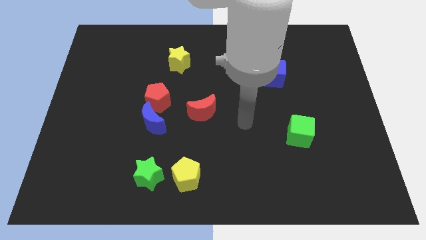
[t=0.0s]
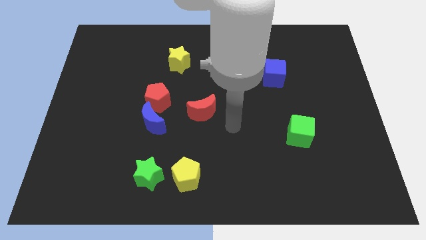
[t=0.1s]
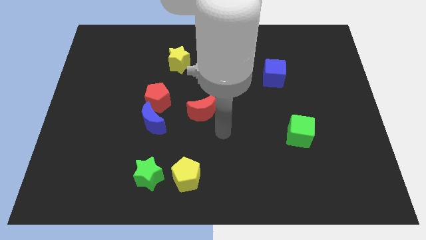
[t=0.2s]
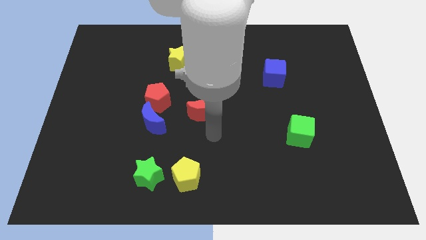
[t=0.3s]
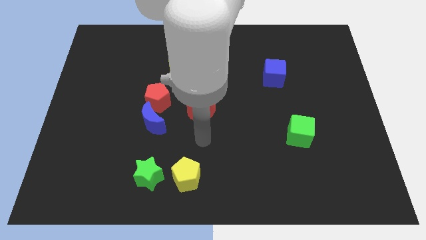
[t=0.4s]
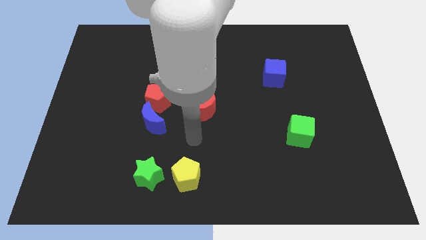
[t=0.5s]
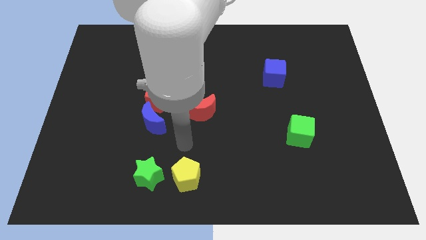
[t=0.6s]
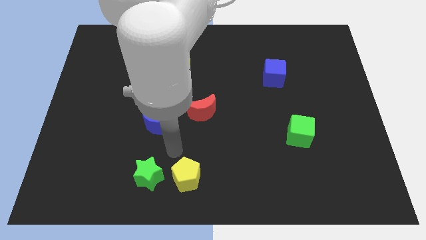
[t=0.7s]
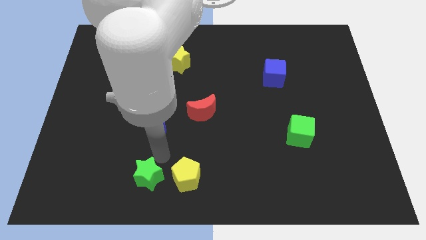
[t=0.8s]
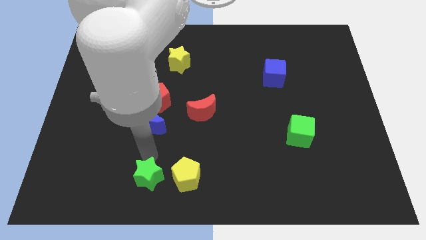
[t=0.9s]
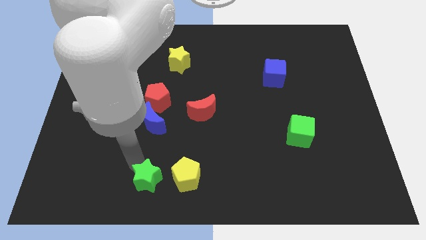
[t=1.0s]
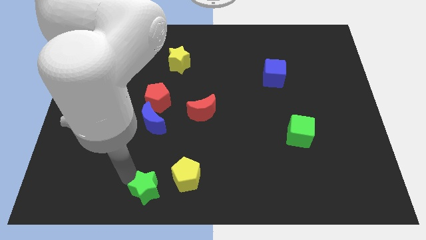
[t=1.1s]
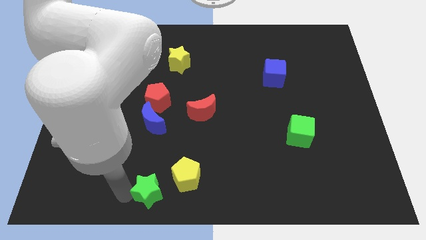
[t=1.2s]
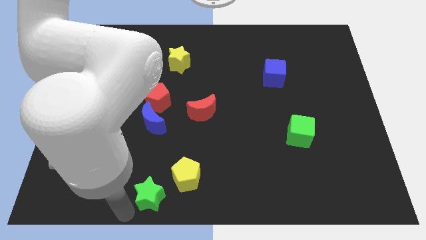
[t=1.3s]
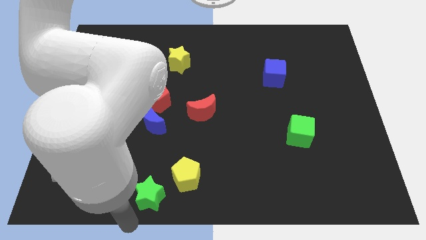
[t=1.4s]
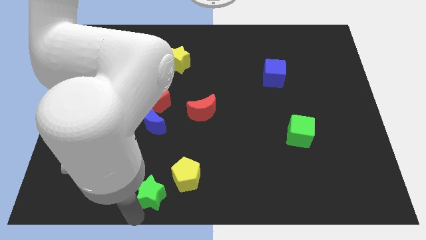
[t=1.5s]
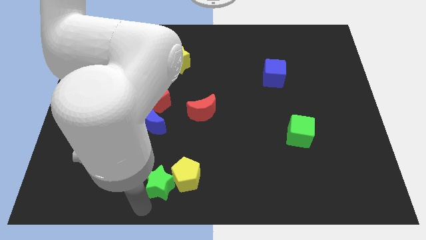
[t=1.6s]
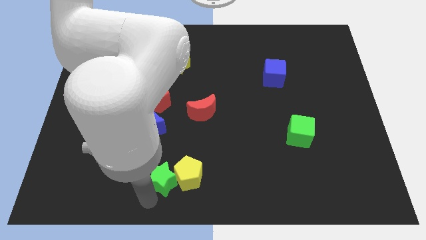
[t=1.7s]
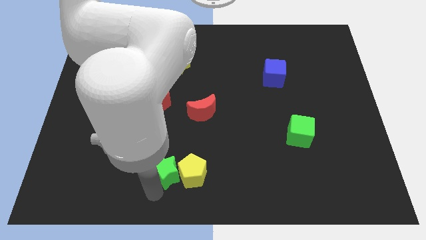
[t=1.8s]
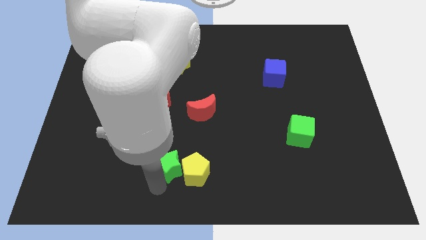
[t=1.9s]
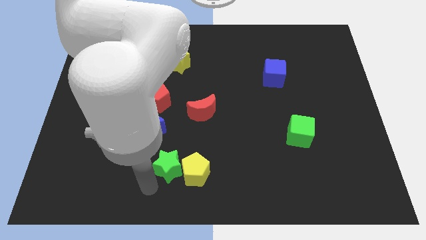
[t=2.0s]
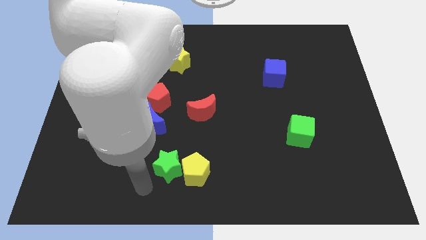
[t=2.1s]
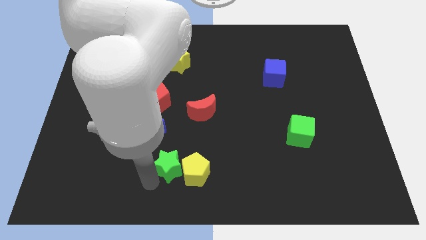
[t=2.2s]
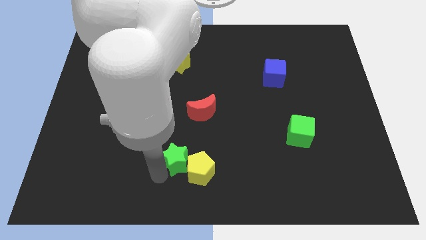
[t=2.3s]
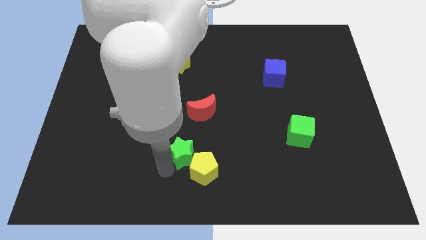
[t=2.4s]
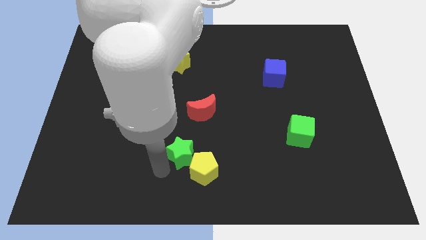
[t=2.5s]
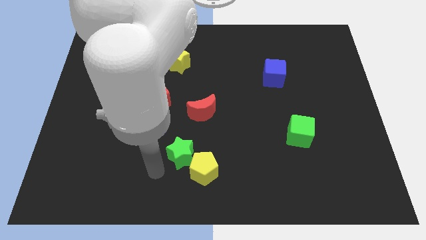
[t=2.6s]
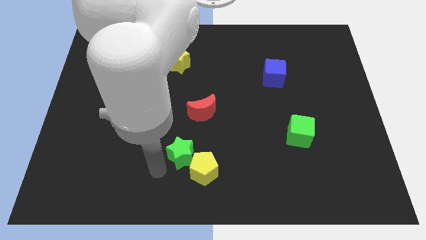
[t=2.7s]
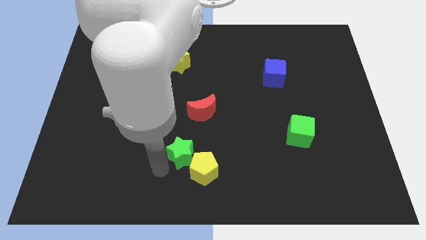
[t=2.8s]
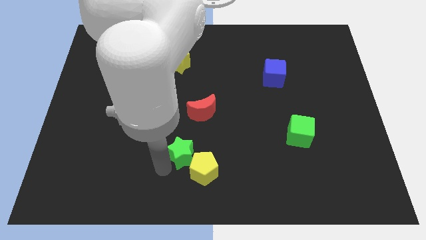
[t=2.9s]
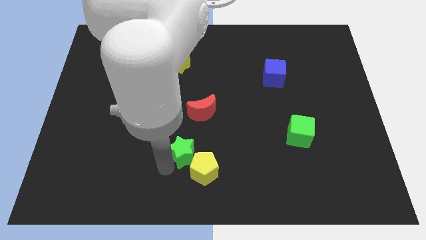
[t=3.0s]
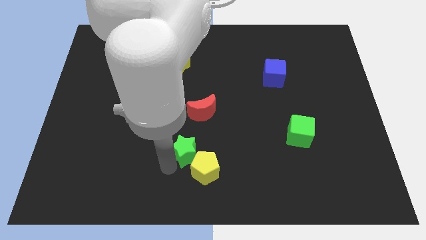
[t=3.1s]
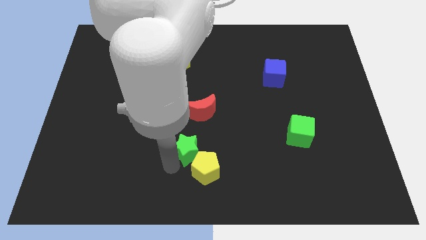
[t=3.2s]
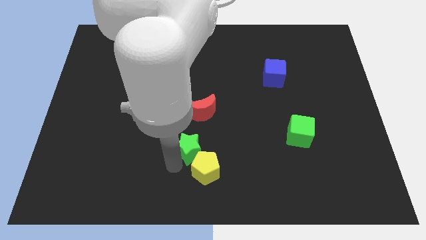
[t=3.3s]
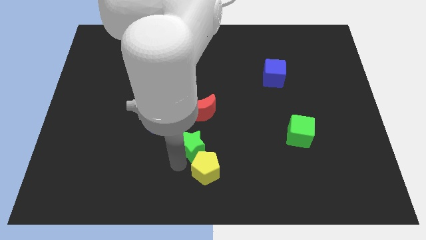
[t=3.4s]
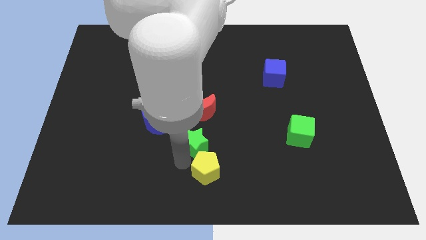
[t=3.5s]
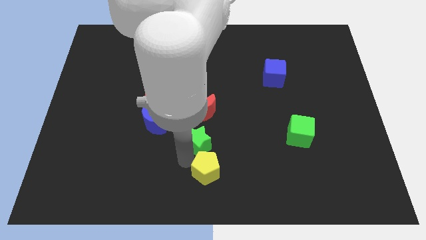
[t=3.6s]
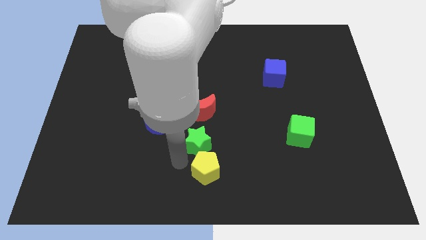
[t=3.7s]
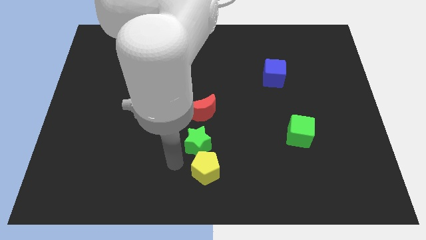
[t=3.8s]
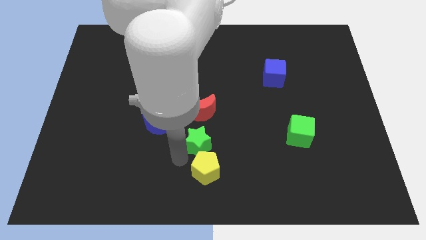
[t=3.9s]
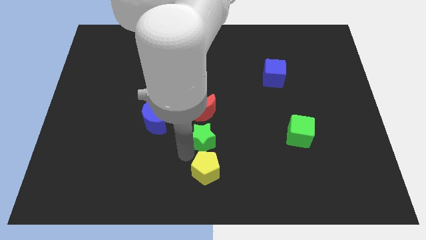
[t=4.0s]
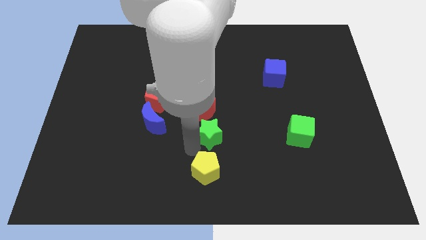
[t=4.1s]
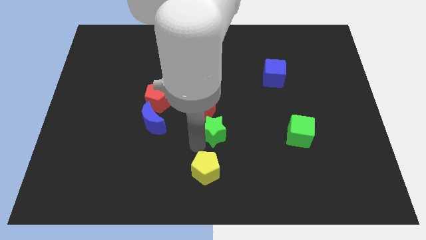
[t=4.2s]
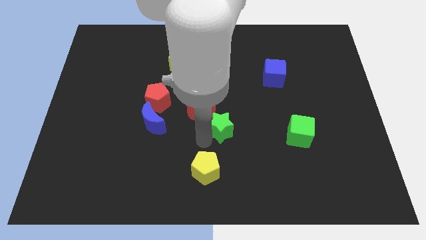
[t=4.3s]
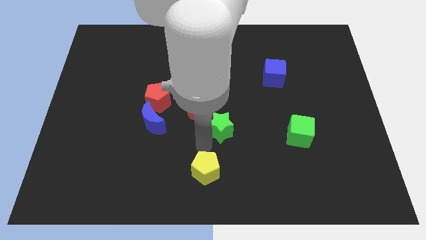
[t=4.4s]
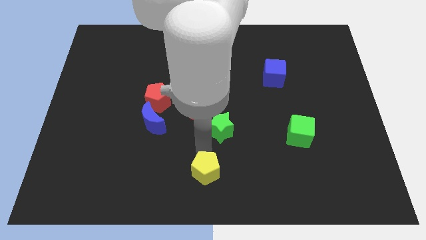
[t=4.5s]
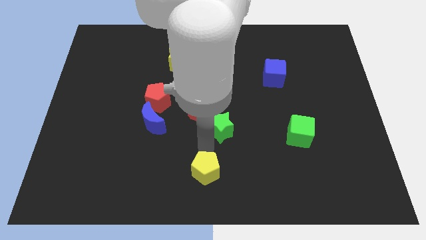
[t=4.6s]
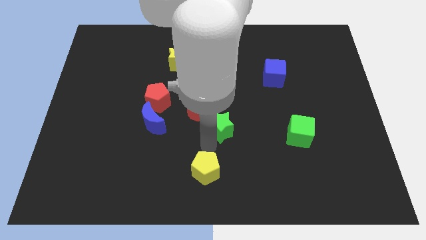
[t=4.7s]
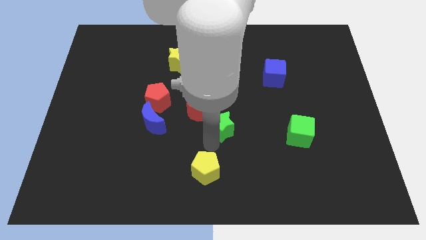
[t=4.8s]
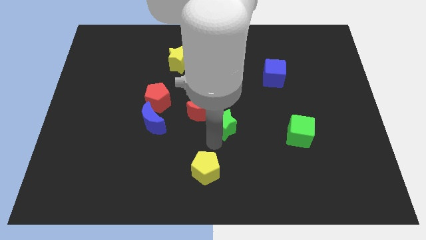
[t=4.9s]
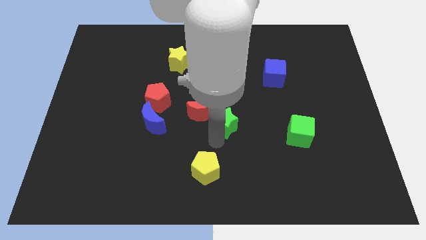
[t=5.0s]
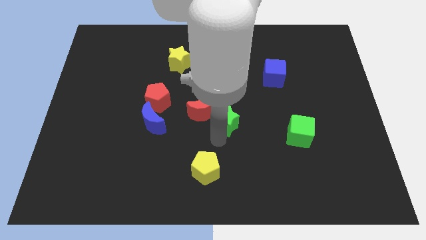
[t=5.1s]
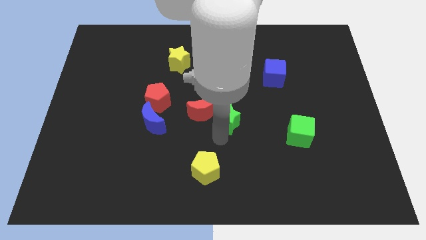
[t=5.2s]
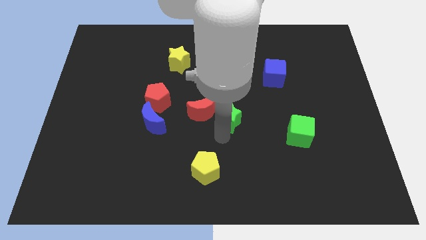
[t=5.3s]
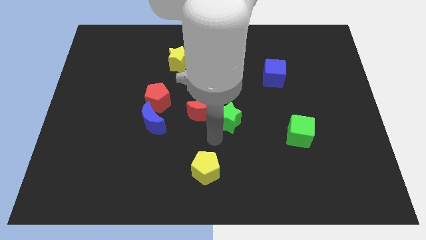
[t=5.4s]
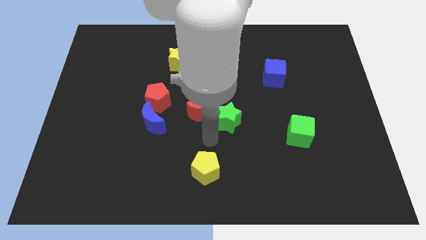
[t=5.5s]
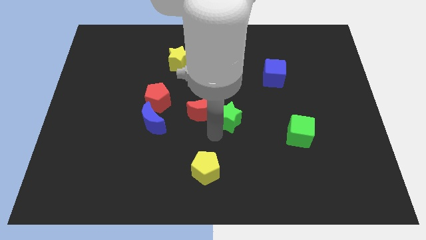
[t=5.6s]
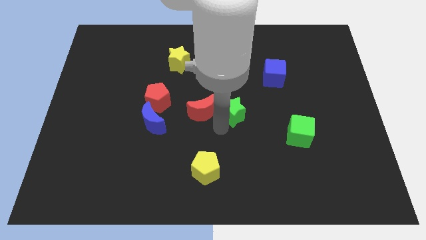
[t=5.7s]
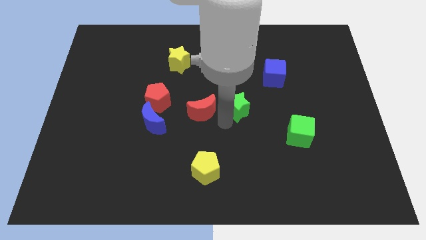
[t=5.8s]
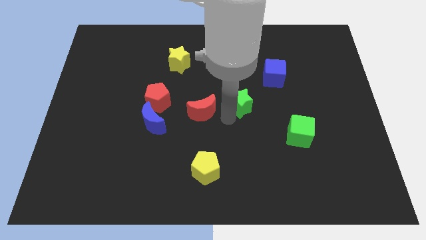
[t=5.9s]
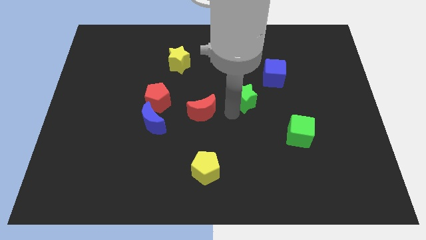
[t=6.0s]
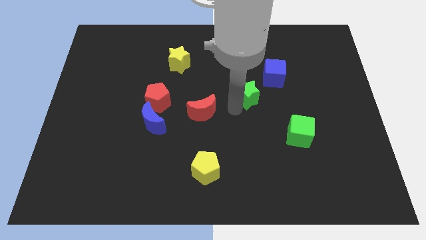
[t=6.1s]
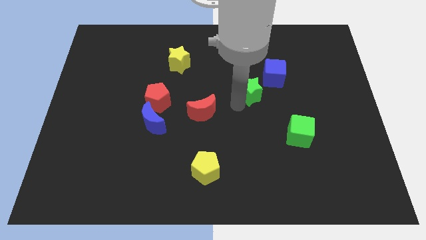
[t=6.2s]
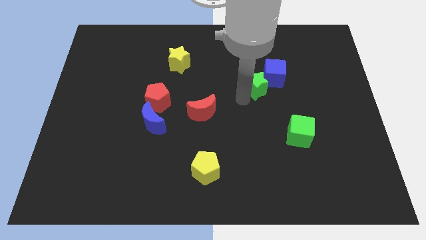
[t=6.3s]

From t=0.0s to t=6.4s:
slide the green star close to the blue cube

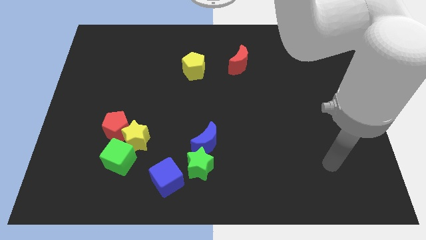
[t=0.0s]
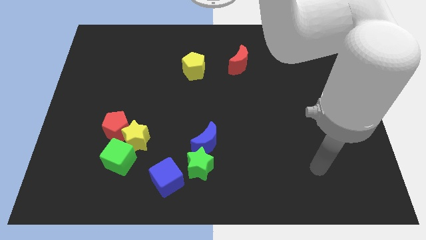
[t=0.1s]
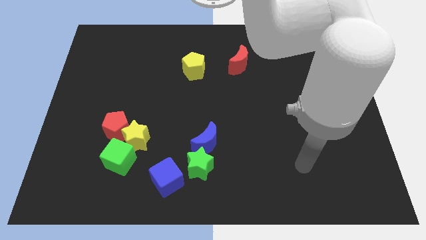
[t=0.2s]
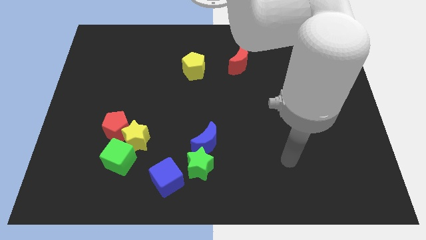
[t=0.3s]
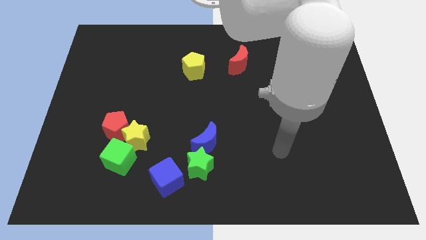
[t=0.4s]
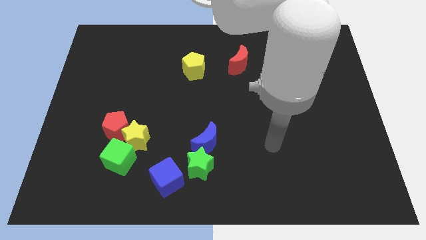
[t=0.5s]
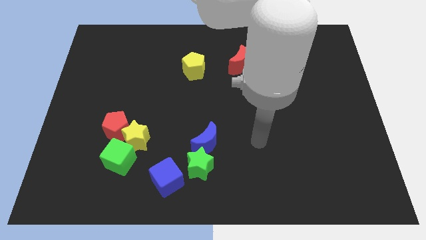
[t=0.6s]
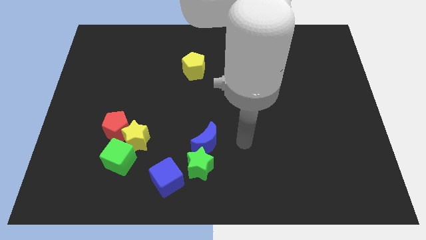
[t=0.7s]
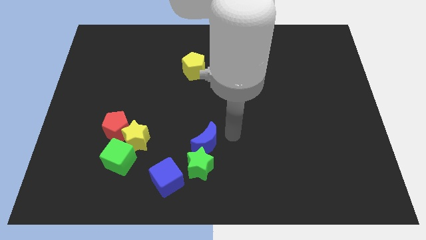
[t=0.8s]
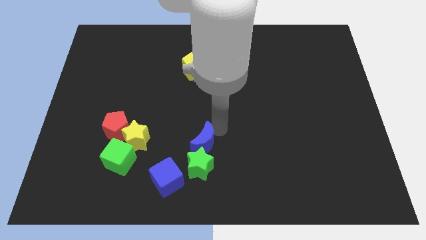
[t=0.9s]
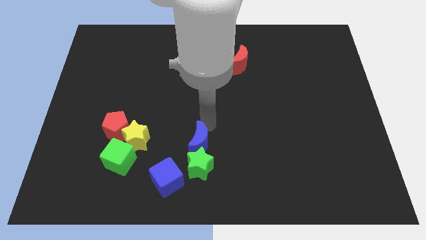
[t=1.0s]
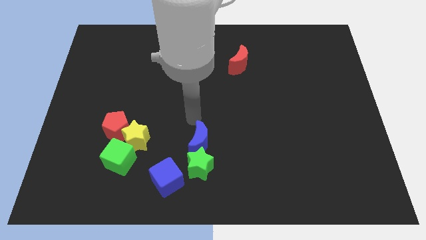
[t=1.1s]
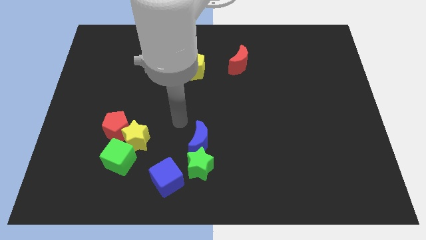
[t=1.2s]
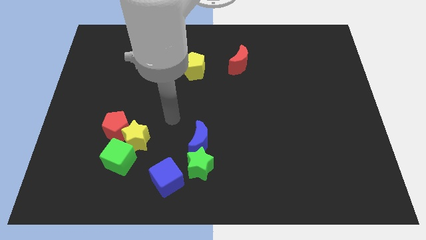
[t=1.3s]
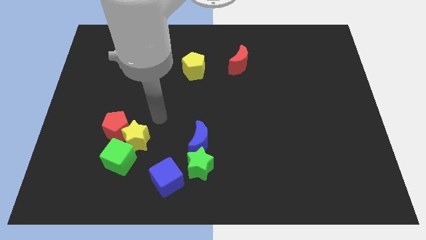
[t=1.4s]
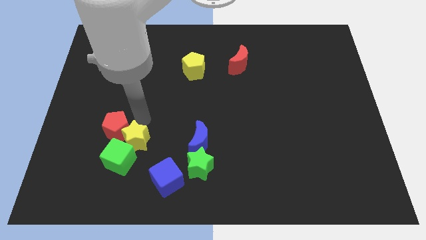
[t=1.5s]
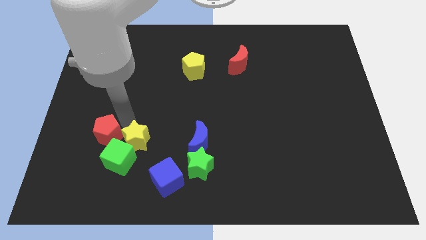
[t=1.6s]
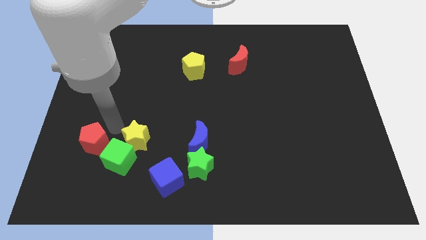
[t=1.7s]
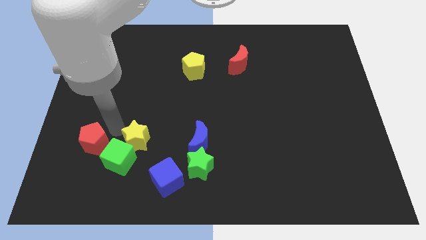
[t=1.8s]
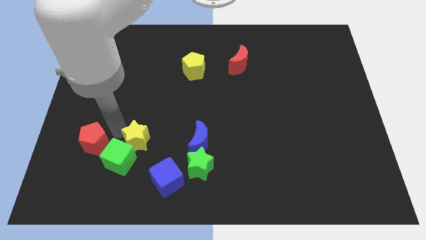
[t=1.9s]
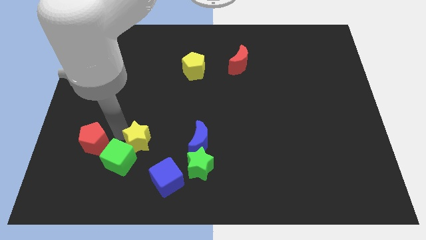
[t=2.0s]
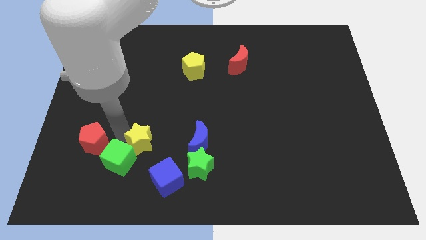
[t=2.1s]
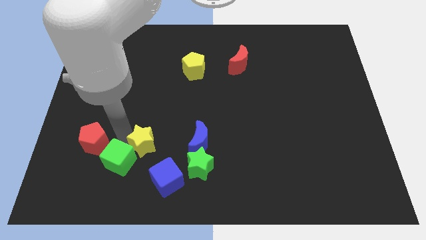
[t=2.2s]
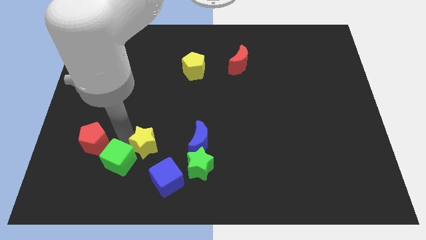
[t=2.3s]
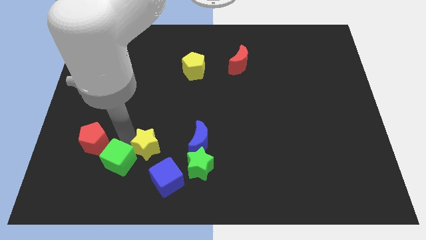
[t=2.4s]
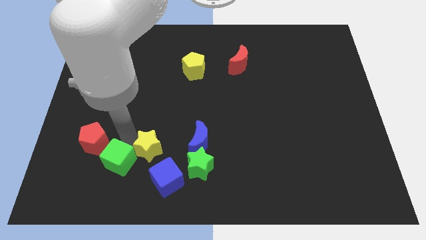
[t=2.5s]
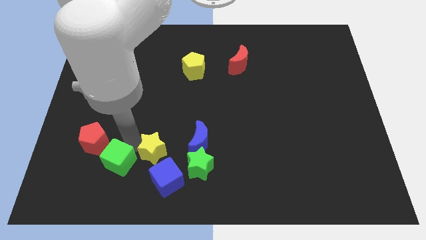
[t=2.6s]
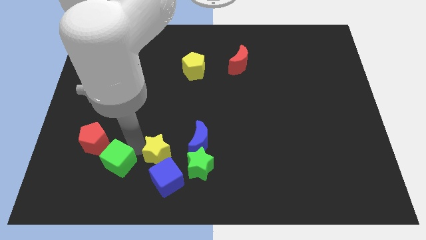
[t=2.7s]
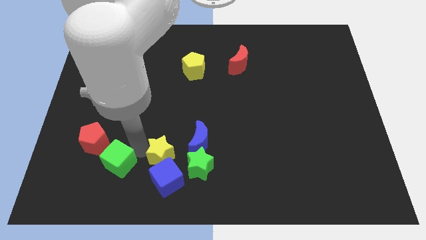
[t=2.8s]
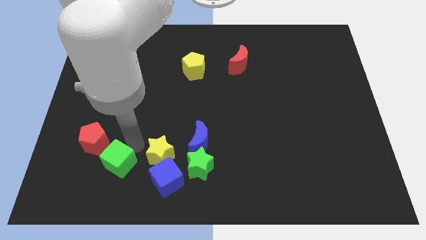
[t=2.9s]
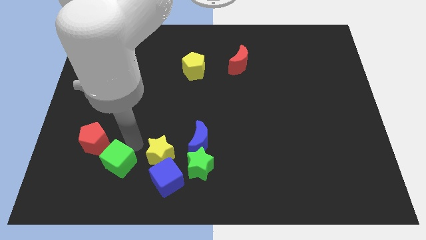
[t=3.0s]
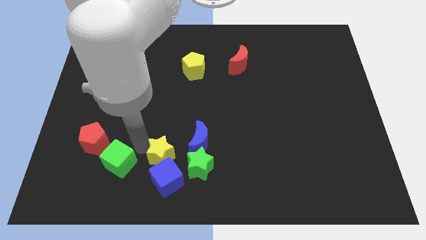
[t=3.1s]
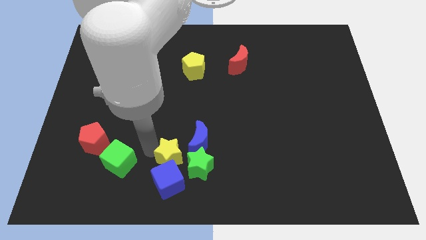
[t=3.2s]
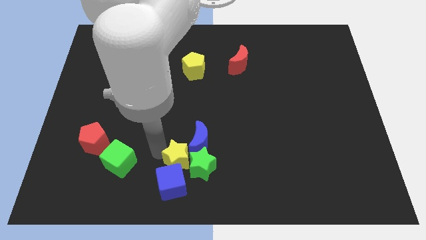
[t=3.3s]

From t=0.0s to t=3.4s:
put the yellow star towards the green star
